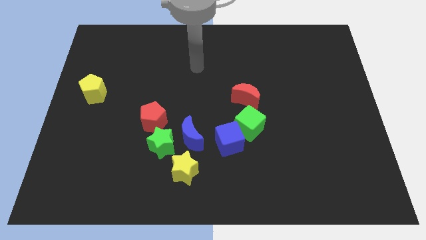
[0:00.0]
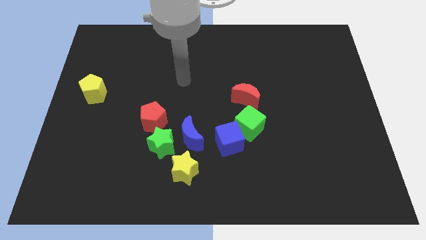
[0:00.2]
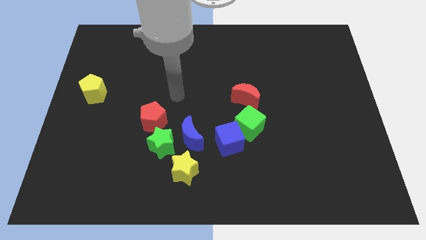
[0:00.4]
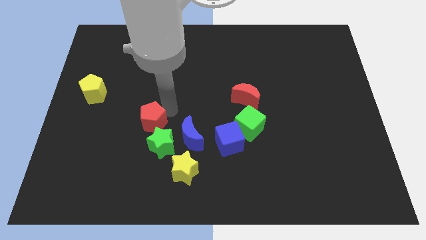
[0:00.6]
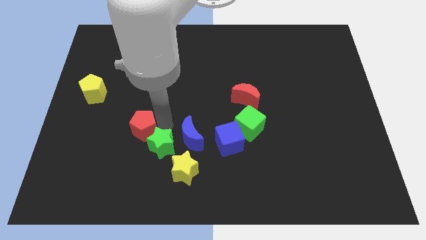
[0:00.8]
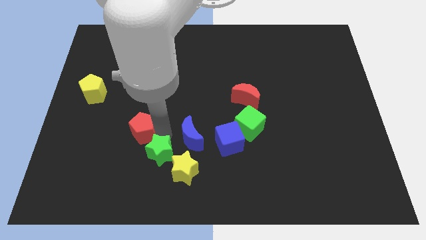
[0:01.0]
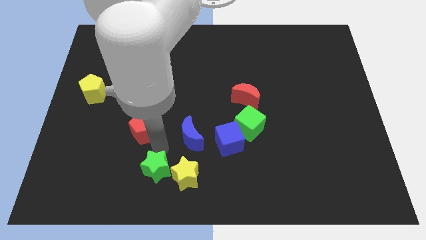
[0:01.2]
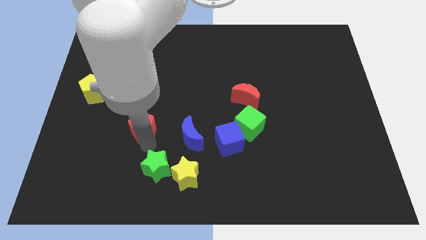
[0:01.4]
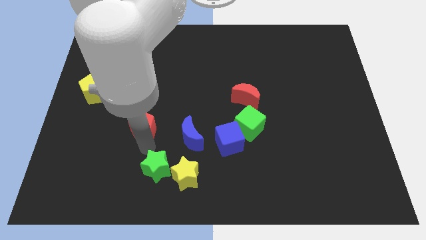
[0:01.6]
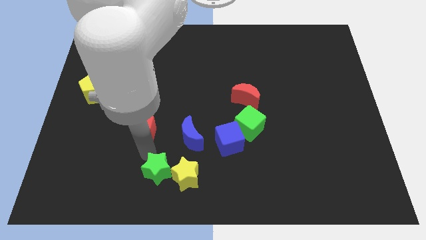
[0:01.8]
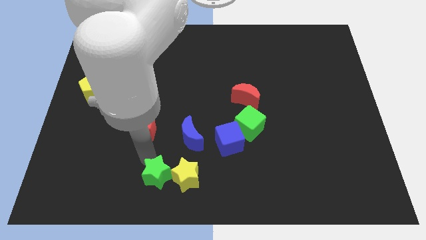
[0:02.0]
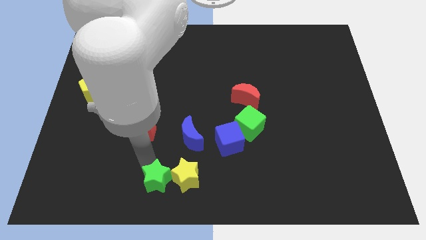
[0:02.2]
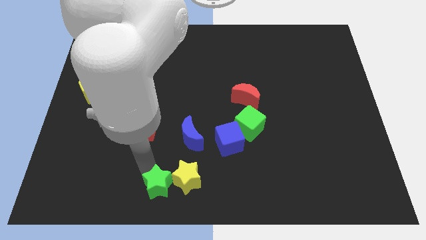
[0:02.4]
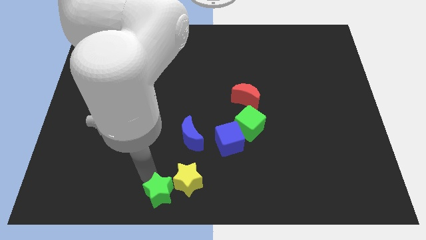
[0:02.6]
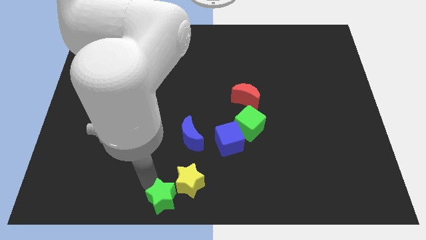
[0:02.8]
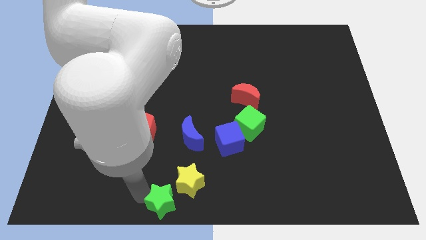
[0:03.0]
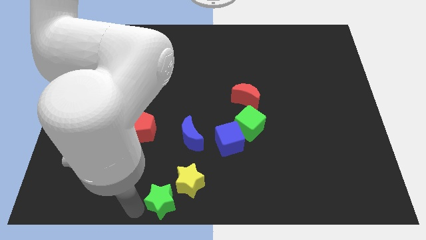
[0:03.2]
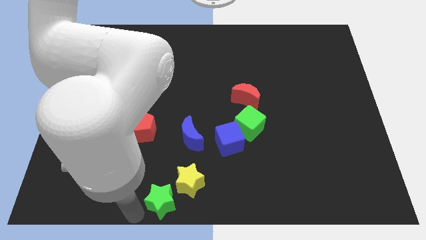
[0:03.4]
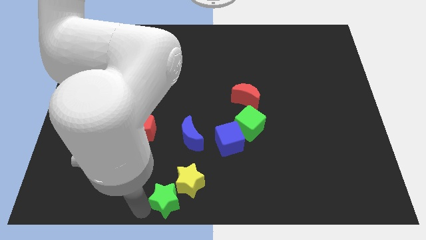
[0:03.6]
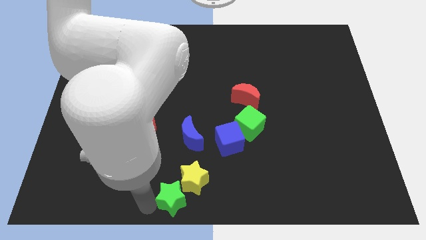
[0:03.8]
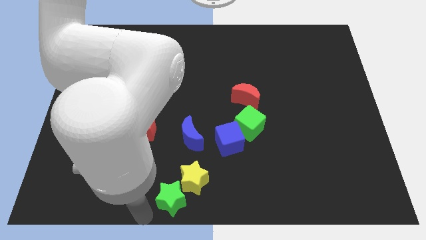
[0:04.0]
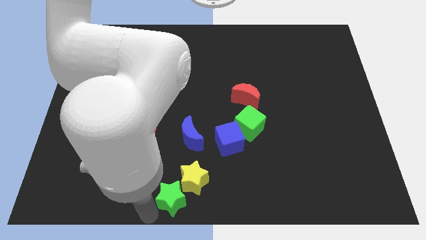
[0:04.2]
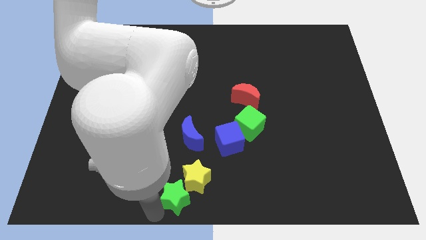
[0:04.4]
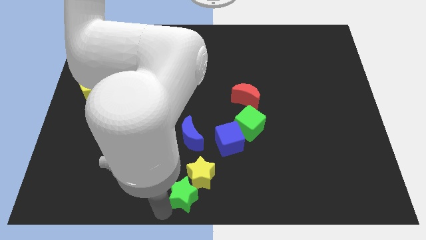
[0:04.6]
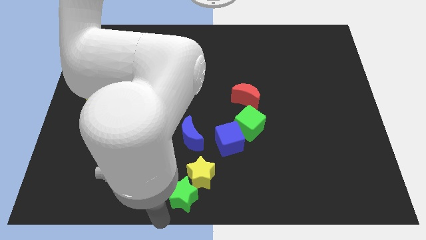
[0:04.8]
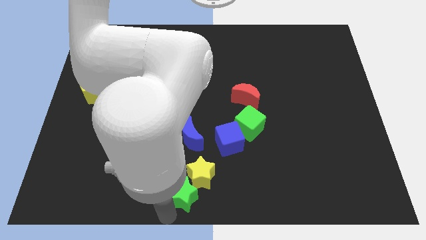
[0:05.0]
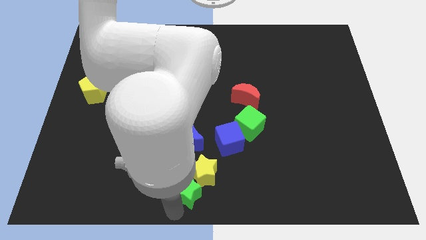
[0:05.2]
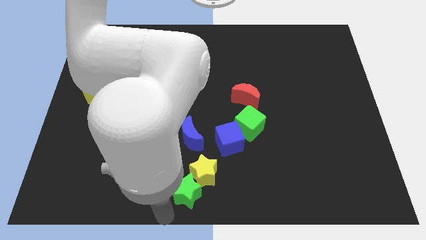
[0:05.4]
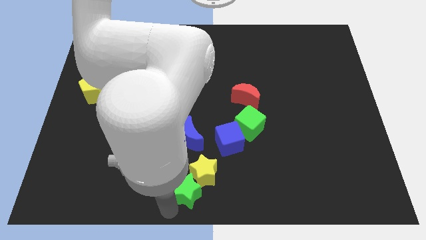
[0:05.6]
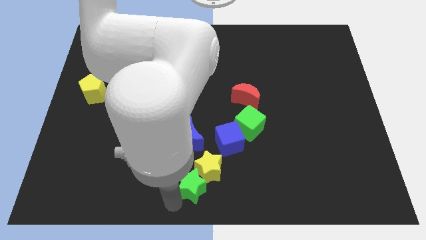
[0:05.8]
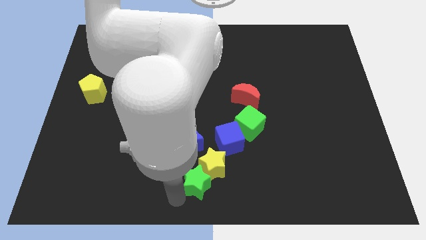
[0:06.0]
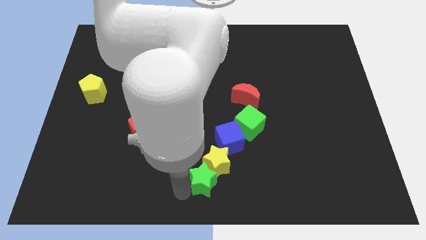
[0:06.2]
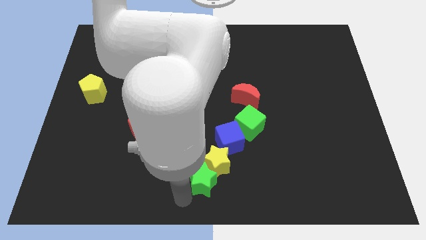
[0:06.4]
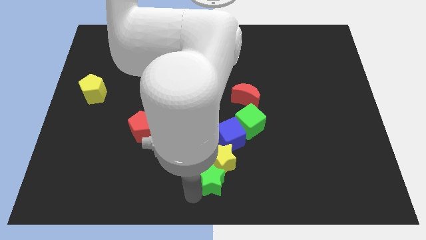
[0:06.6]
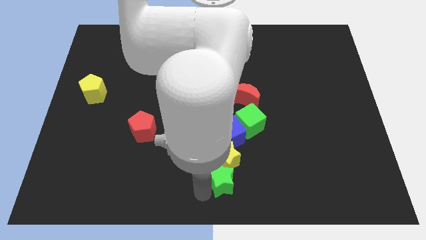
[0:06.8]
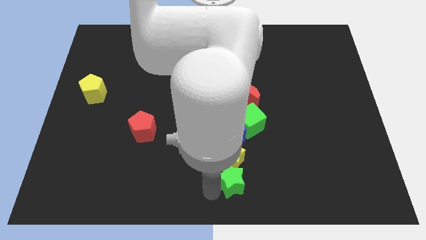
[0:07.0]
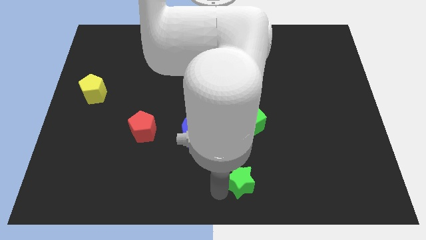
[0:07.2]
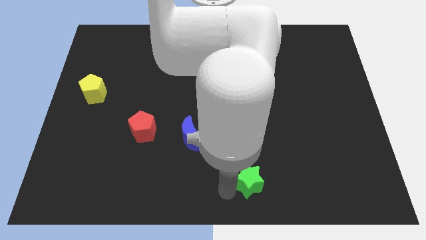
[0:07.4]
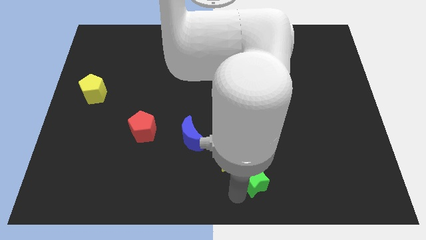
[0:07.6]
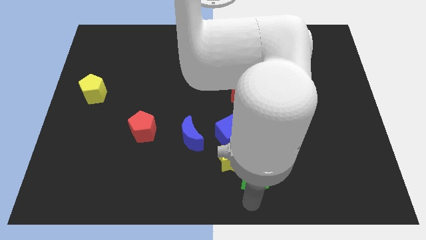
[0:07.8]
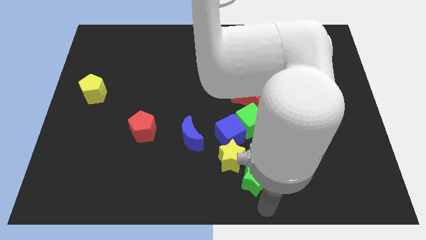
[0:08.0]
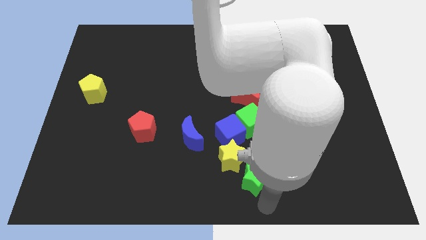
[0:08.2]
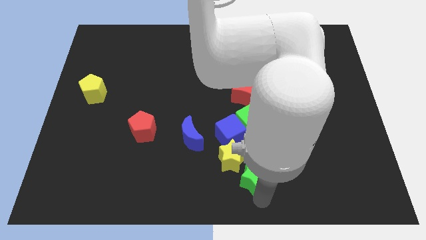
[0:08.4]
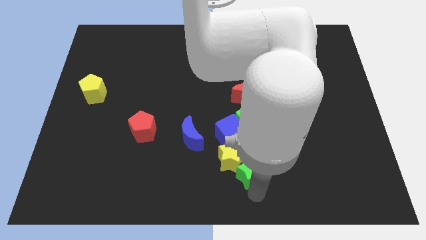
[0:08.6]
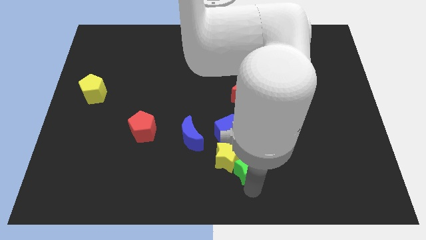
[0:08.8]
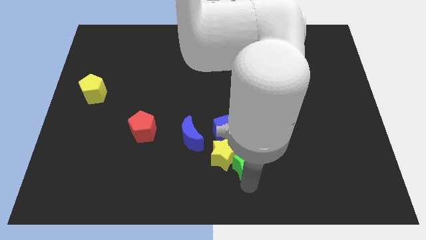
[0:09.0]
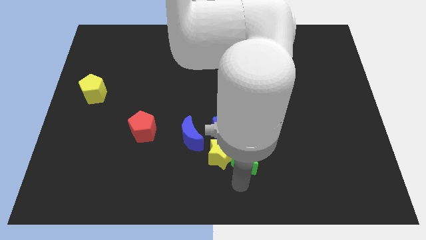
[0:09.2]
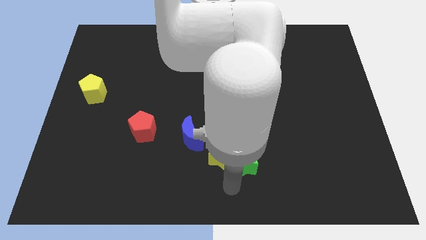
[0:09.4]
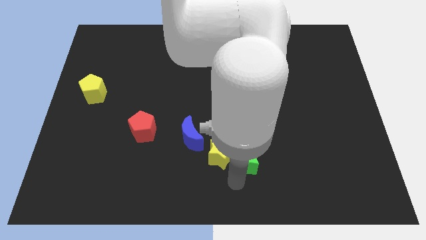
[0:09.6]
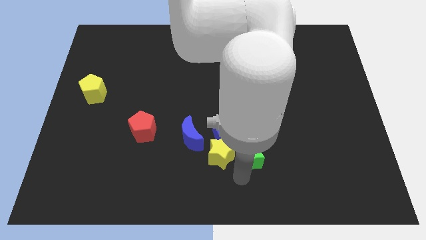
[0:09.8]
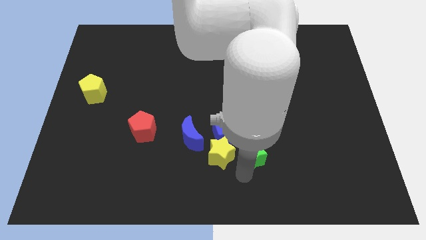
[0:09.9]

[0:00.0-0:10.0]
push the green star right of the blue moon

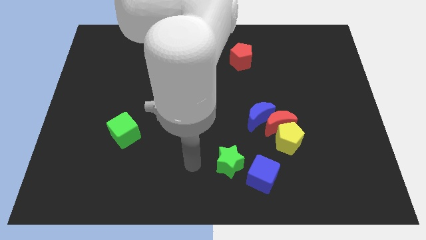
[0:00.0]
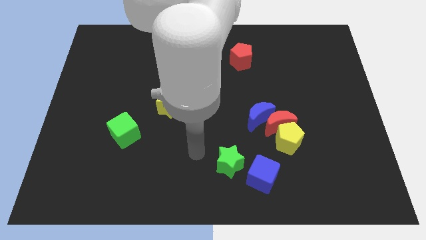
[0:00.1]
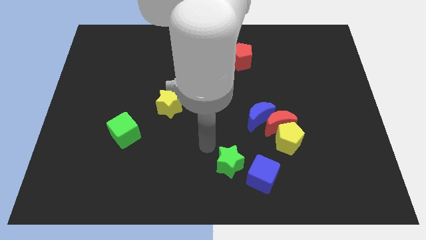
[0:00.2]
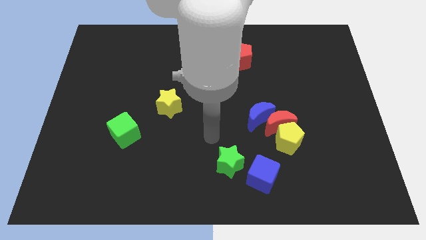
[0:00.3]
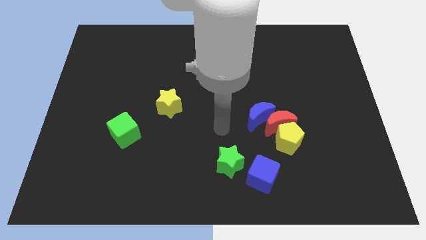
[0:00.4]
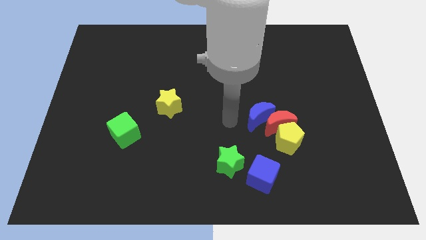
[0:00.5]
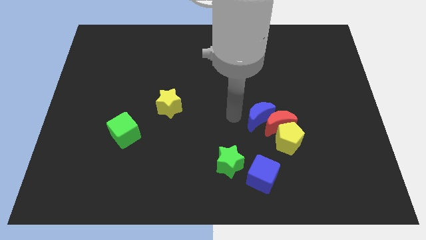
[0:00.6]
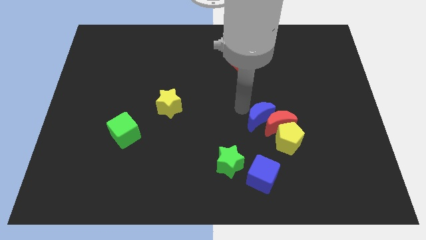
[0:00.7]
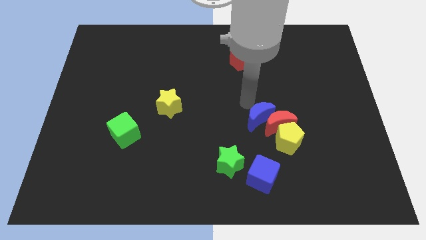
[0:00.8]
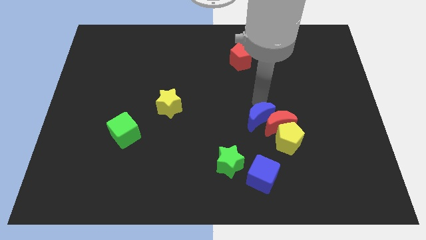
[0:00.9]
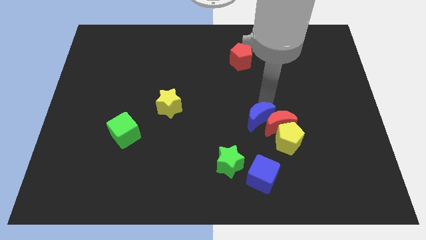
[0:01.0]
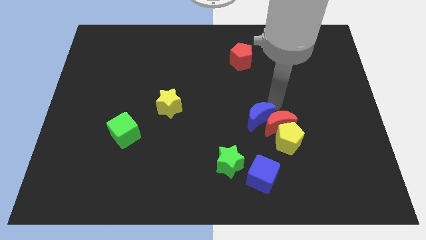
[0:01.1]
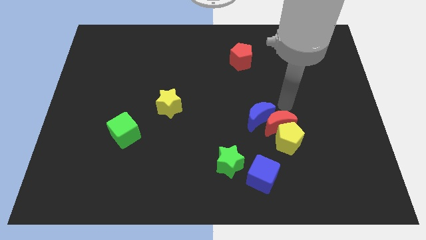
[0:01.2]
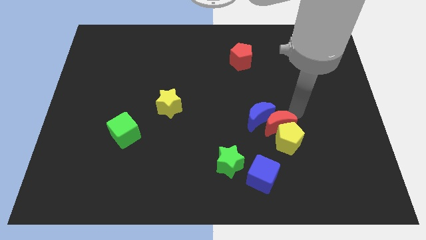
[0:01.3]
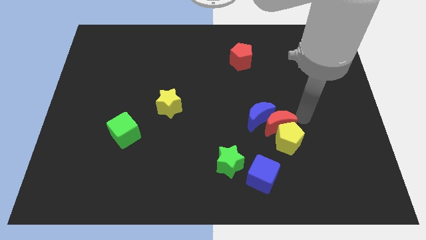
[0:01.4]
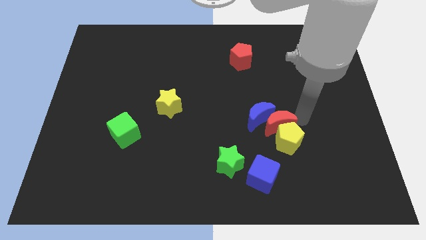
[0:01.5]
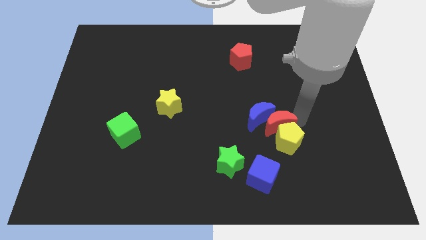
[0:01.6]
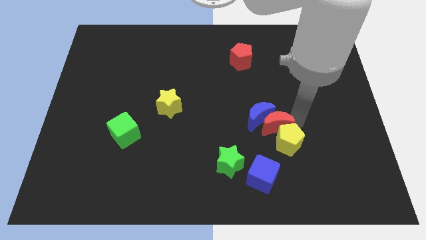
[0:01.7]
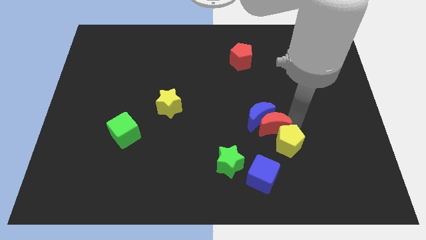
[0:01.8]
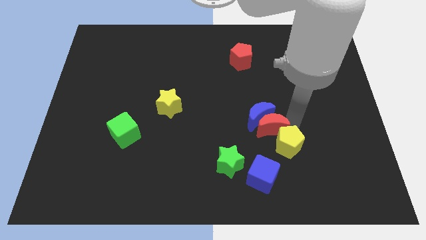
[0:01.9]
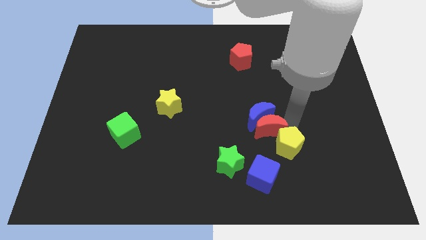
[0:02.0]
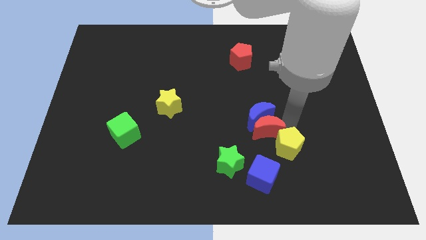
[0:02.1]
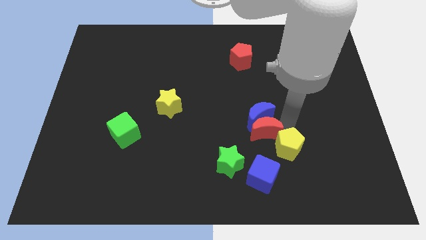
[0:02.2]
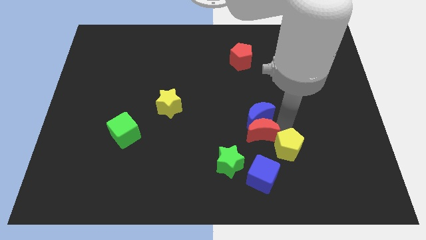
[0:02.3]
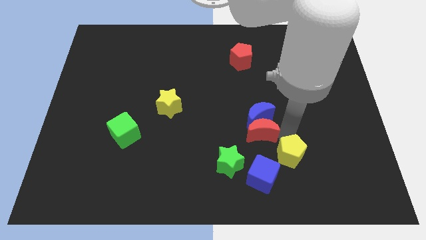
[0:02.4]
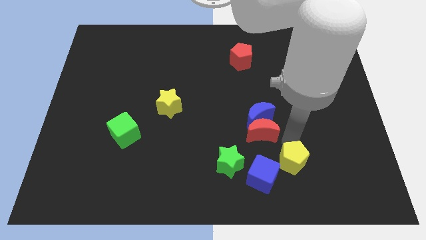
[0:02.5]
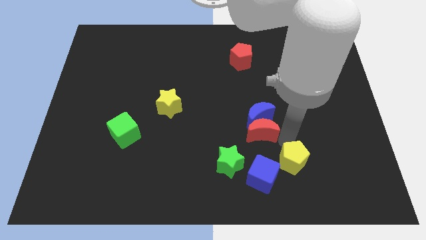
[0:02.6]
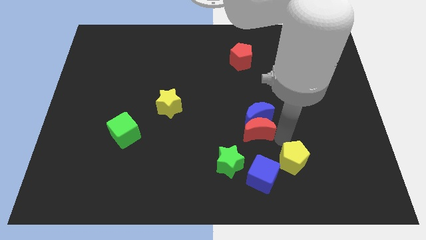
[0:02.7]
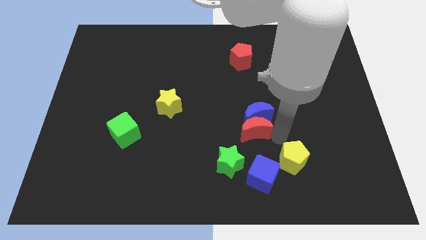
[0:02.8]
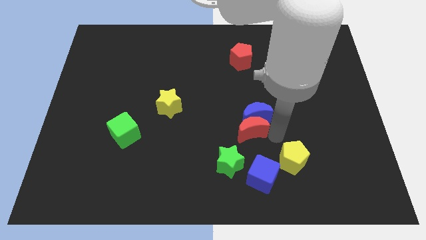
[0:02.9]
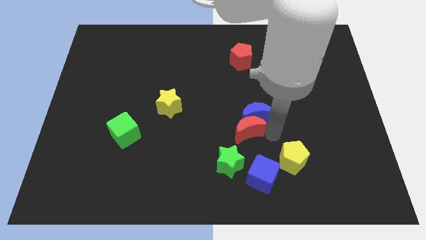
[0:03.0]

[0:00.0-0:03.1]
move the red moon just left of the blue moon
